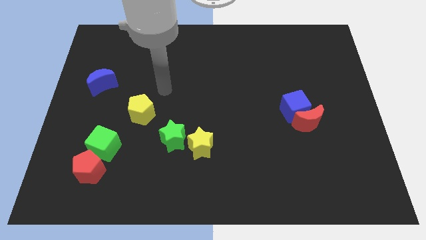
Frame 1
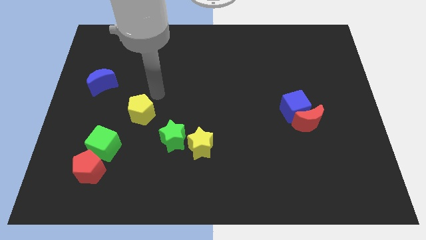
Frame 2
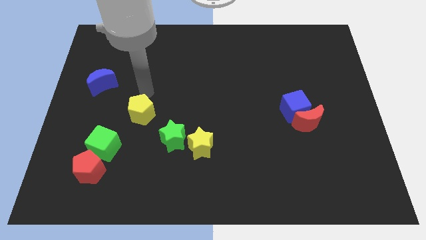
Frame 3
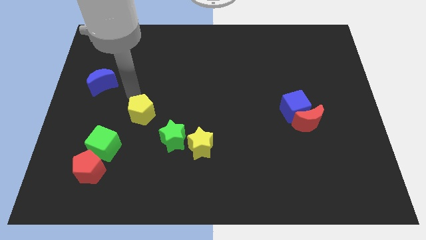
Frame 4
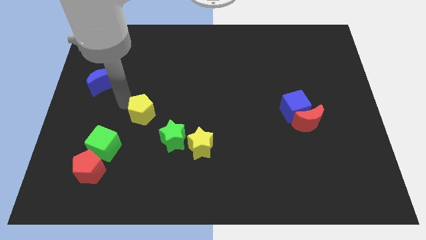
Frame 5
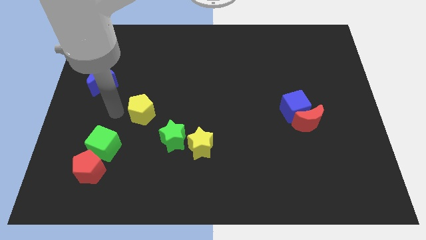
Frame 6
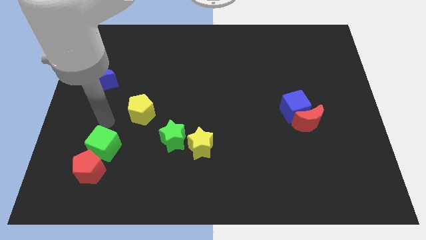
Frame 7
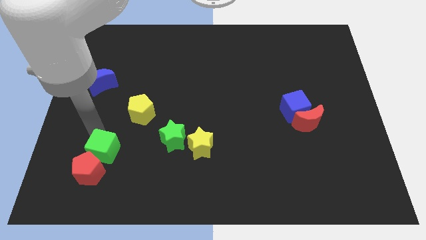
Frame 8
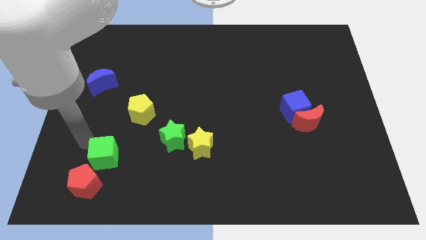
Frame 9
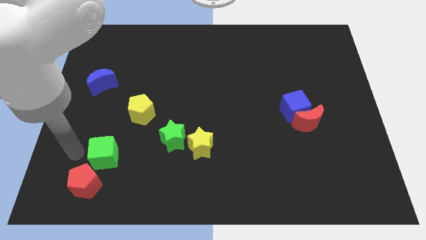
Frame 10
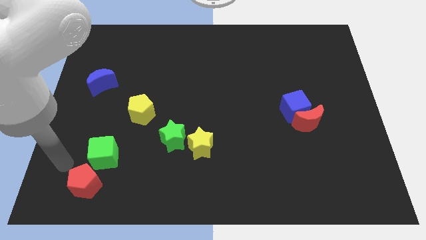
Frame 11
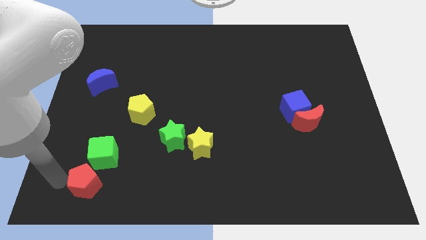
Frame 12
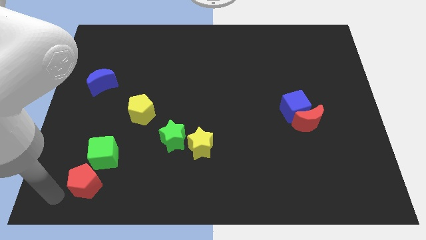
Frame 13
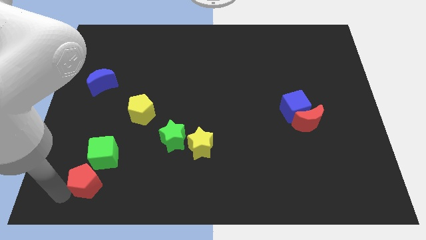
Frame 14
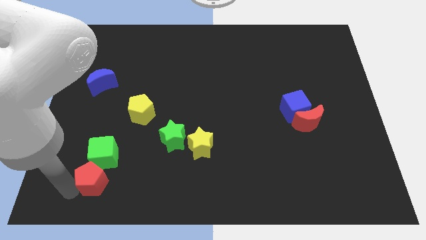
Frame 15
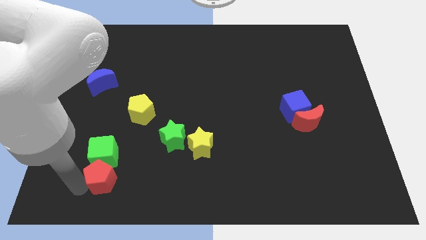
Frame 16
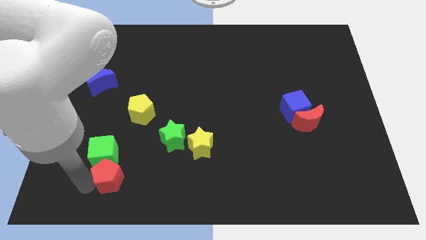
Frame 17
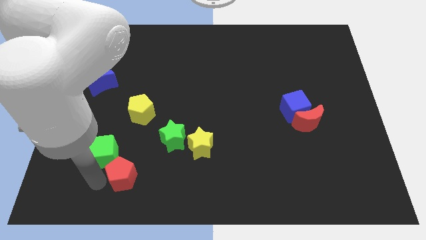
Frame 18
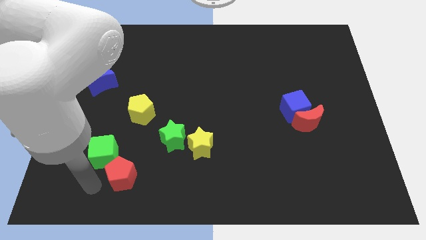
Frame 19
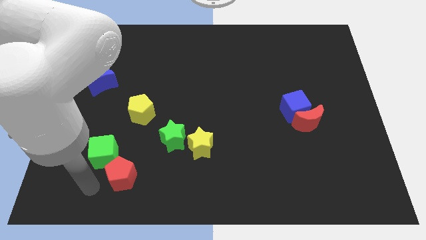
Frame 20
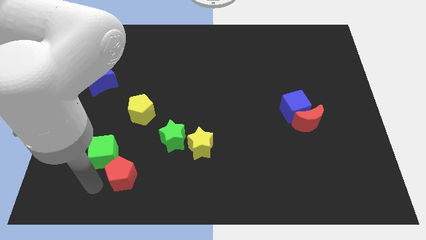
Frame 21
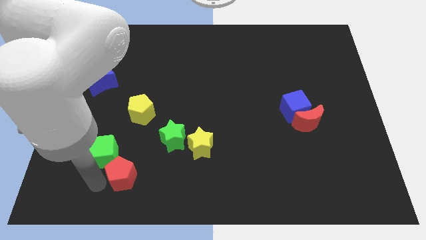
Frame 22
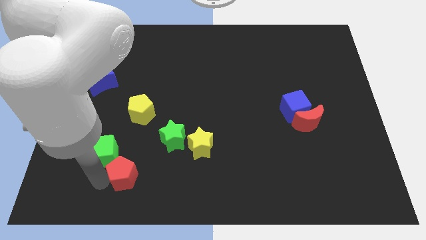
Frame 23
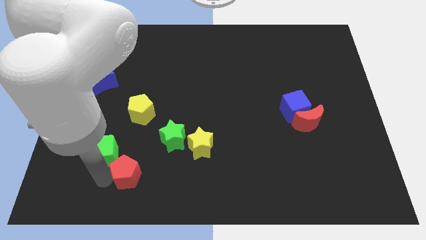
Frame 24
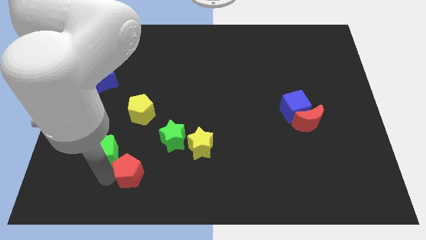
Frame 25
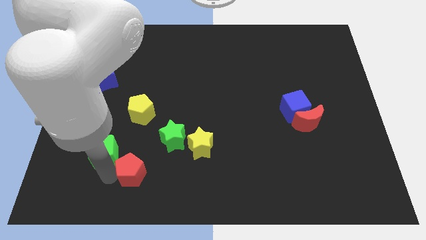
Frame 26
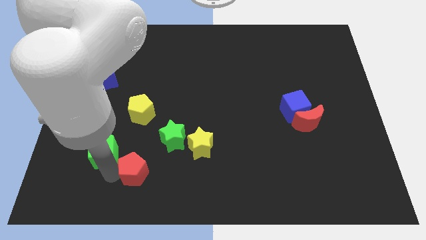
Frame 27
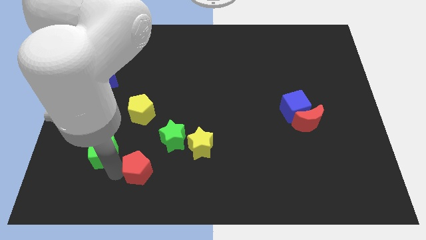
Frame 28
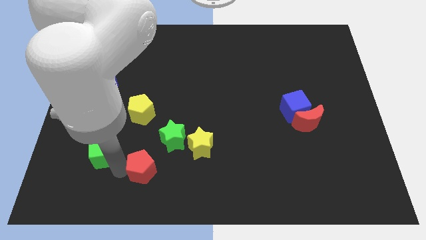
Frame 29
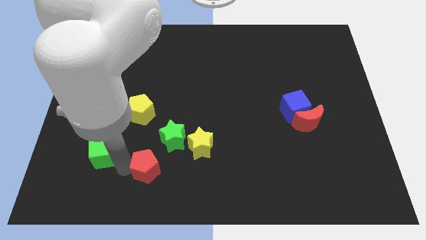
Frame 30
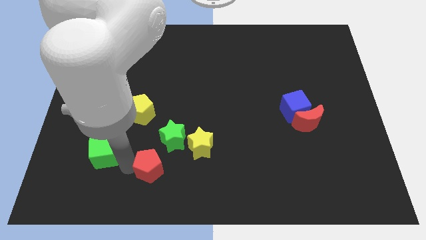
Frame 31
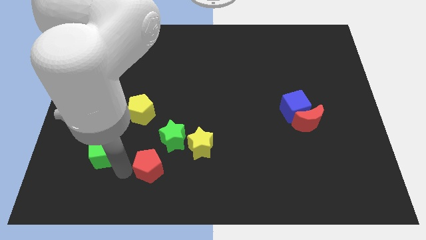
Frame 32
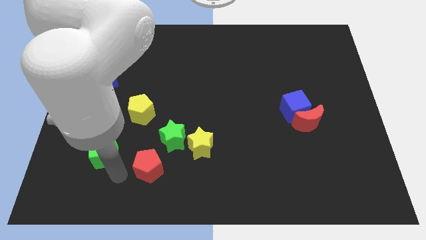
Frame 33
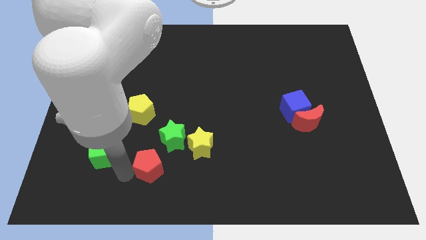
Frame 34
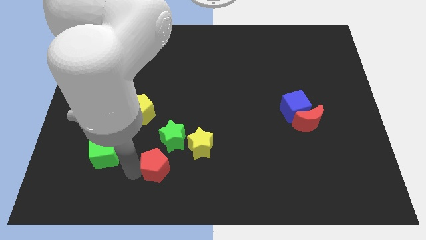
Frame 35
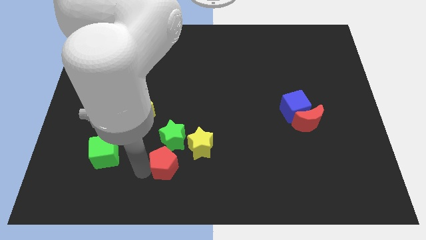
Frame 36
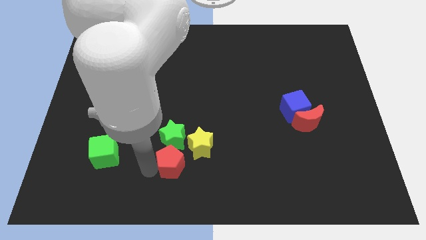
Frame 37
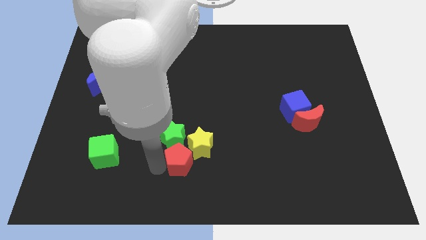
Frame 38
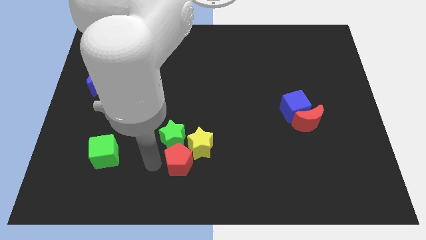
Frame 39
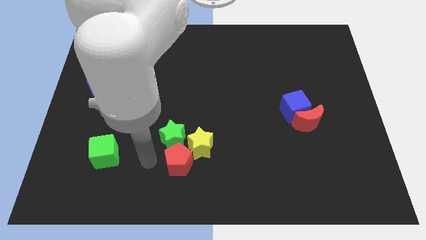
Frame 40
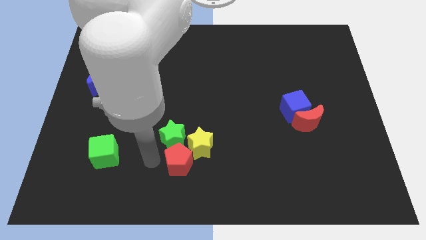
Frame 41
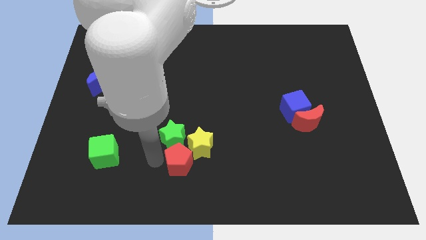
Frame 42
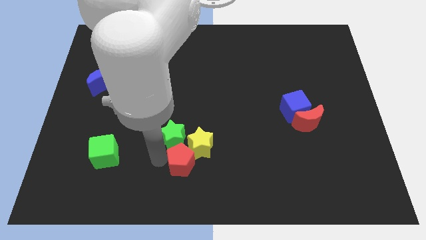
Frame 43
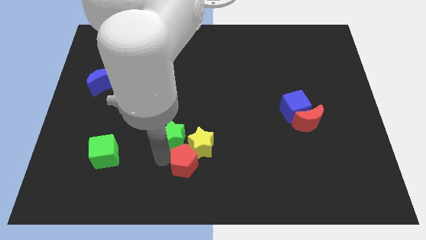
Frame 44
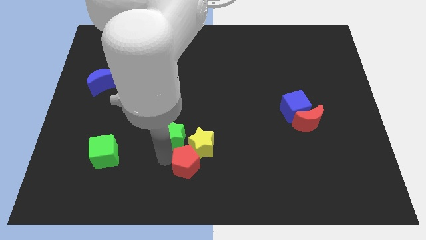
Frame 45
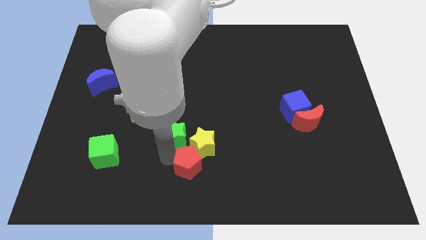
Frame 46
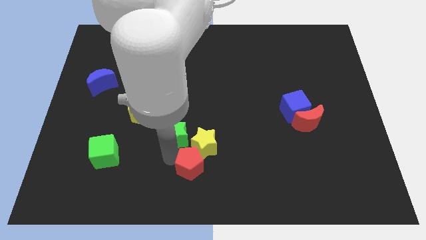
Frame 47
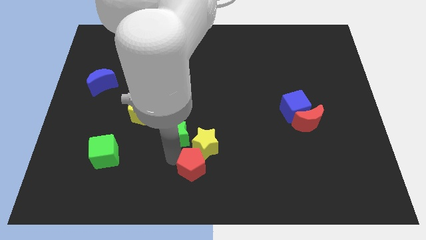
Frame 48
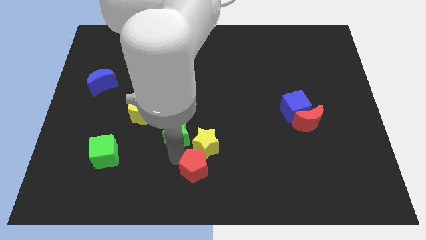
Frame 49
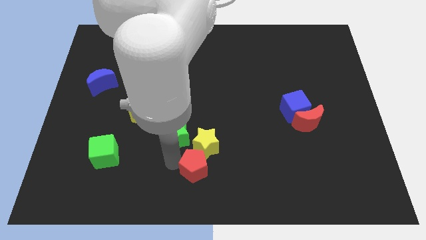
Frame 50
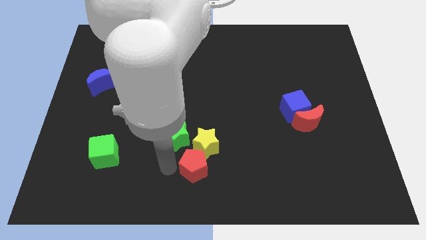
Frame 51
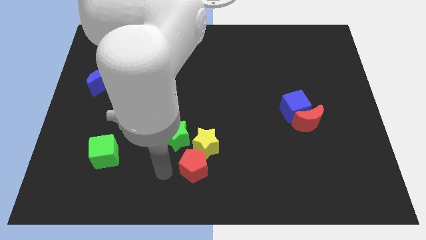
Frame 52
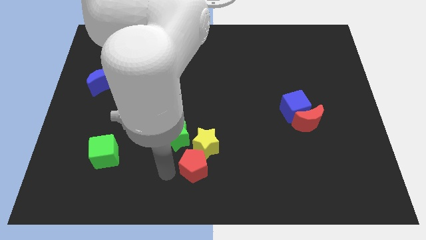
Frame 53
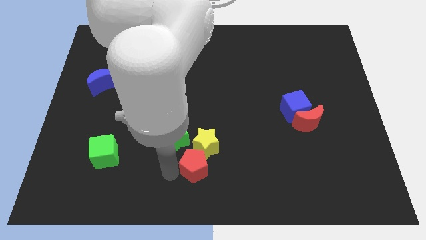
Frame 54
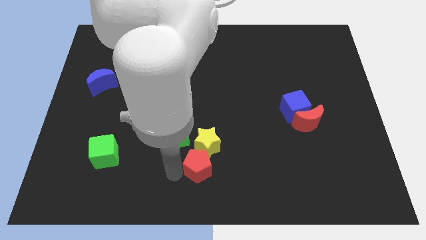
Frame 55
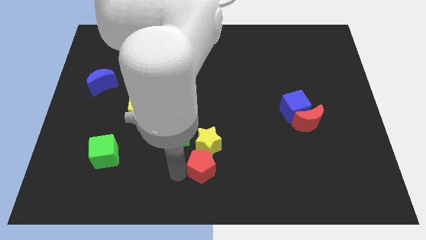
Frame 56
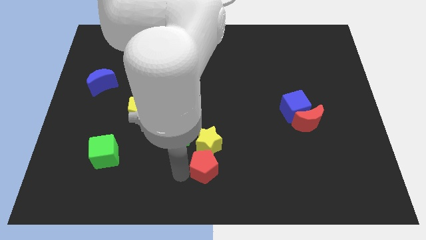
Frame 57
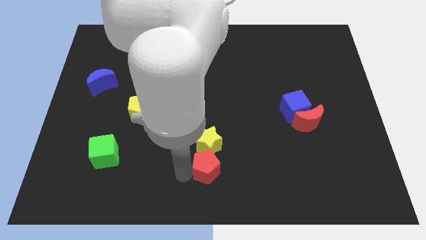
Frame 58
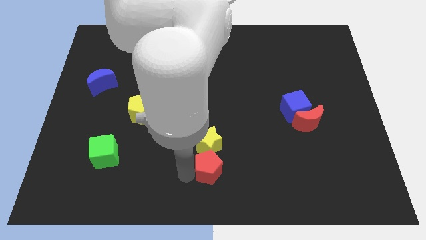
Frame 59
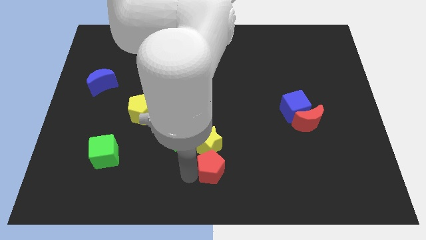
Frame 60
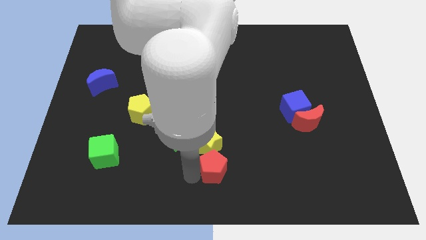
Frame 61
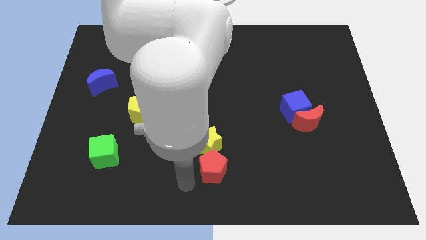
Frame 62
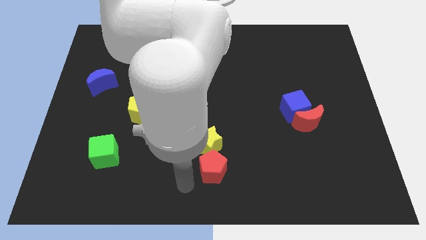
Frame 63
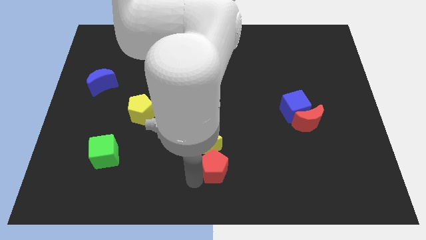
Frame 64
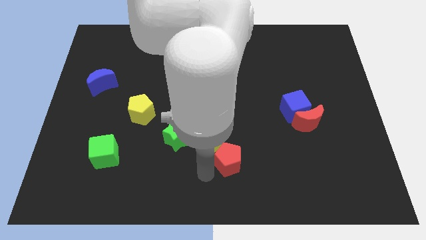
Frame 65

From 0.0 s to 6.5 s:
move the red pentagon to the right of the yellow star
